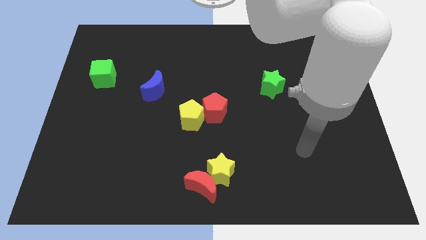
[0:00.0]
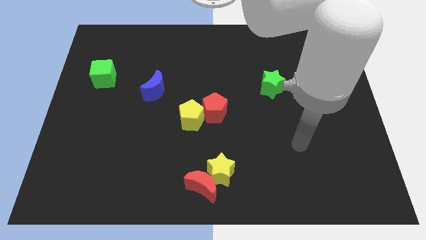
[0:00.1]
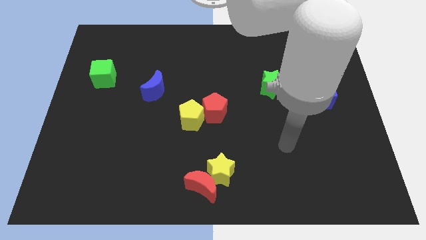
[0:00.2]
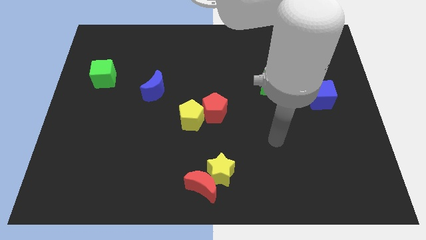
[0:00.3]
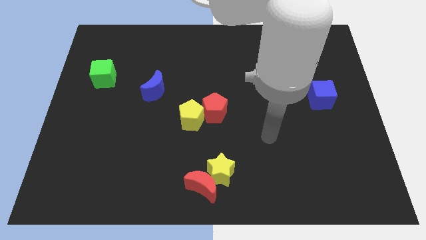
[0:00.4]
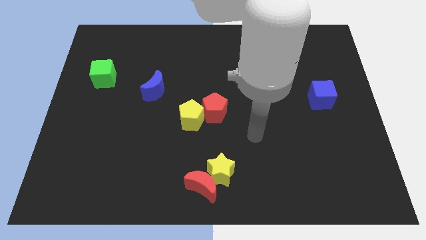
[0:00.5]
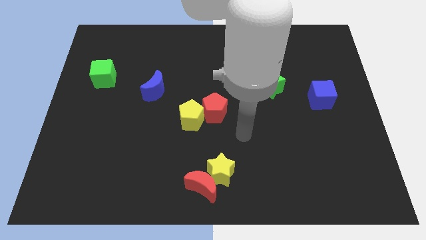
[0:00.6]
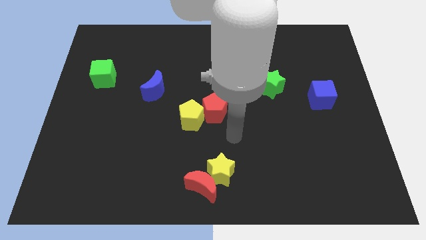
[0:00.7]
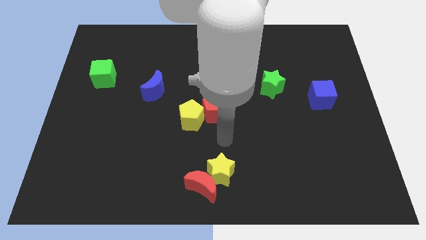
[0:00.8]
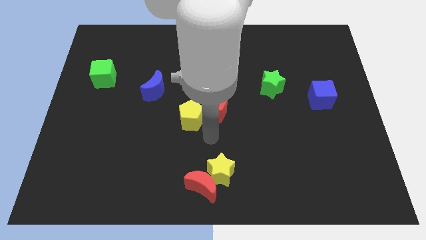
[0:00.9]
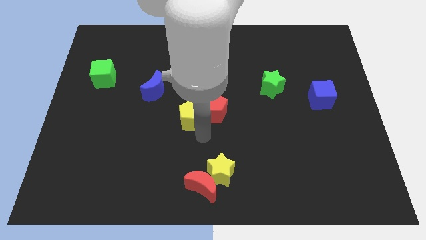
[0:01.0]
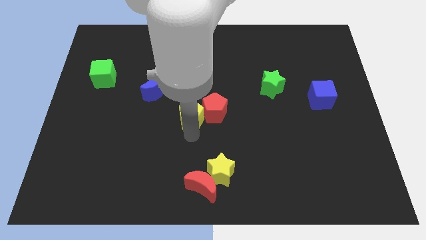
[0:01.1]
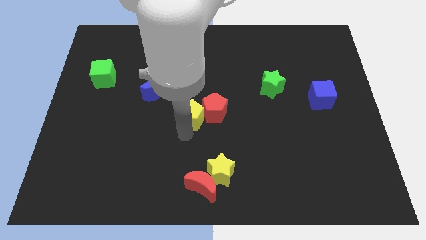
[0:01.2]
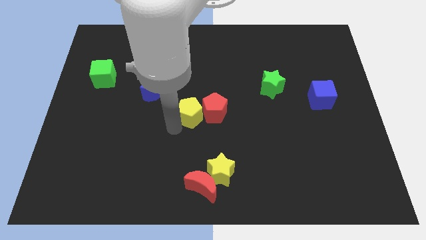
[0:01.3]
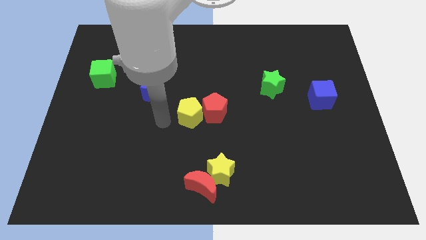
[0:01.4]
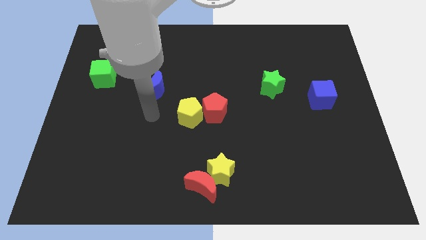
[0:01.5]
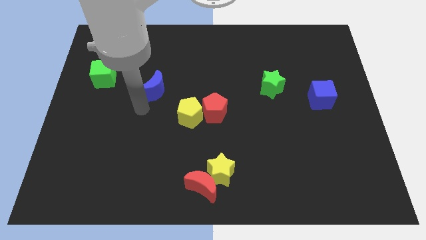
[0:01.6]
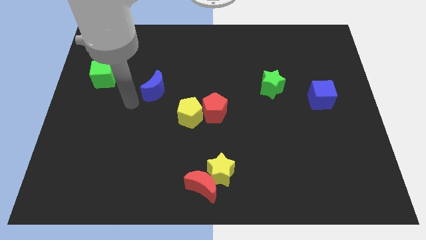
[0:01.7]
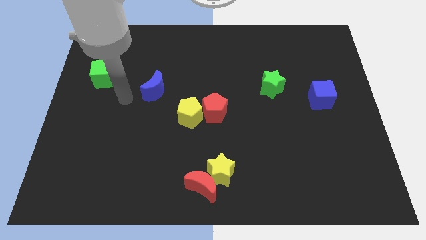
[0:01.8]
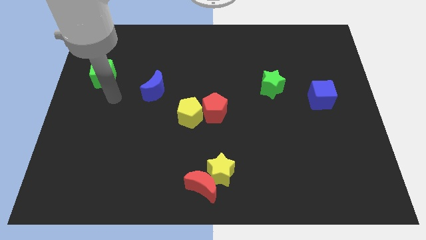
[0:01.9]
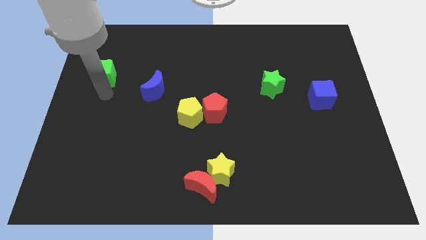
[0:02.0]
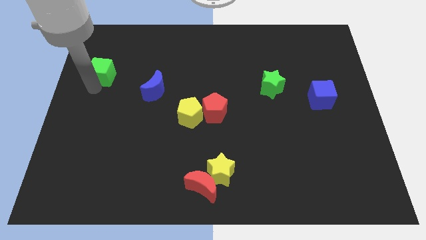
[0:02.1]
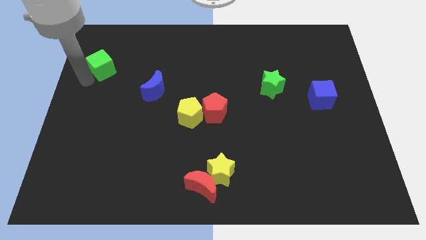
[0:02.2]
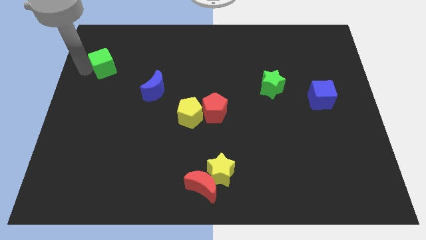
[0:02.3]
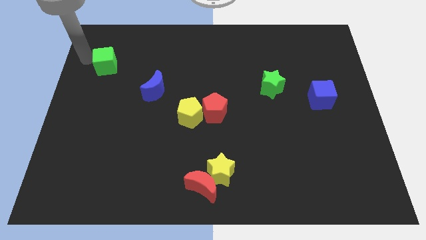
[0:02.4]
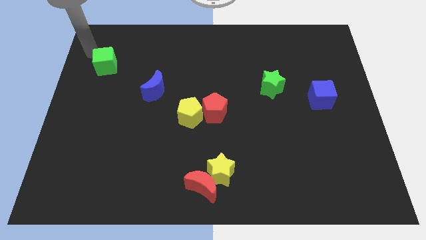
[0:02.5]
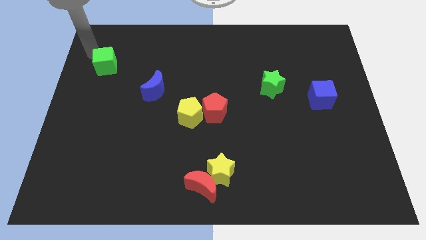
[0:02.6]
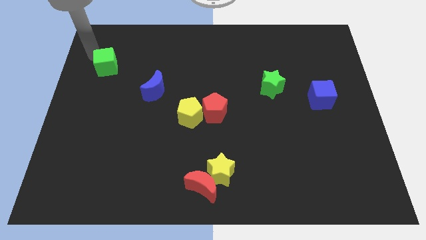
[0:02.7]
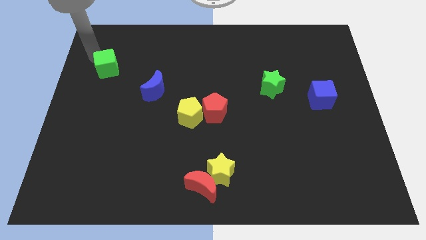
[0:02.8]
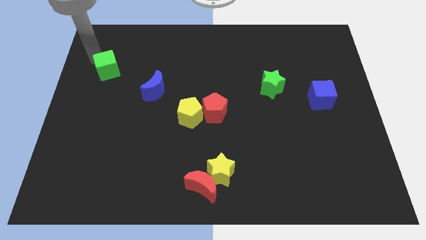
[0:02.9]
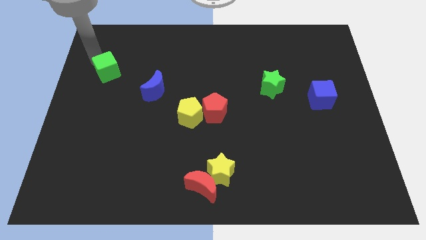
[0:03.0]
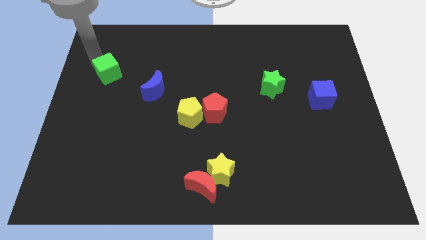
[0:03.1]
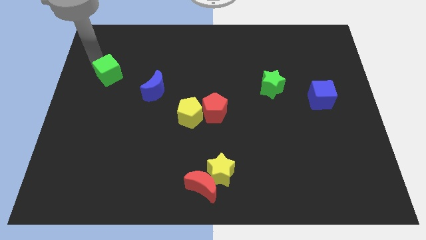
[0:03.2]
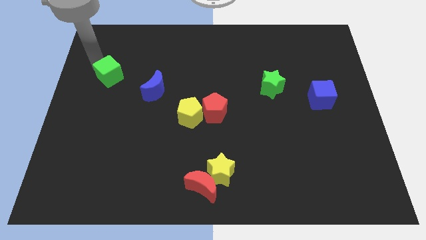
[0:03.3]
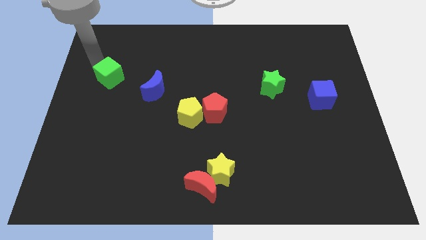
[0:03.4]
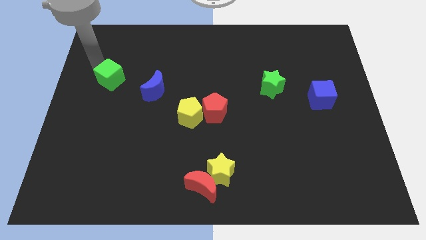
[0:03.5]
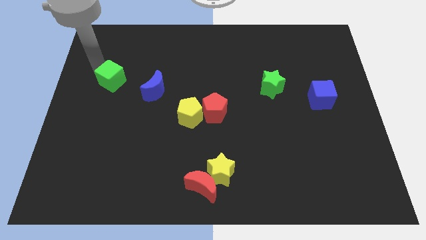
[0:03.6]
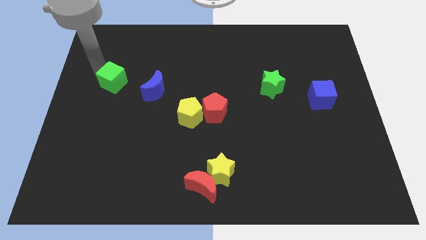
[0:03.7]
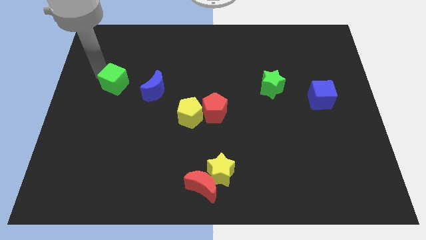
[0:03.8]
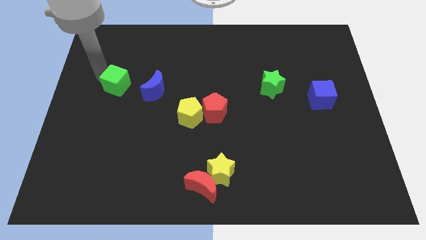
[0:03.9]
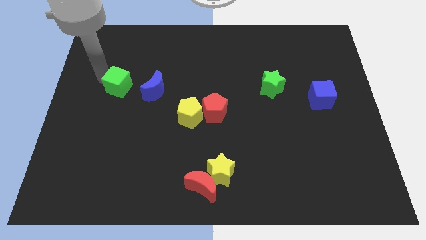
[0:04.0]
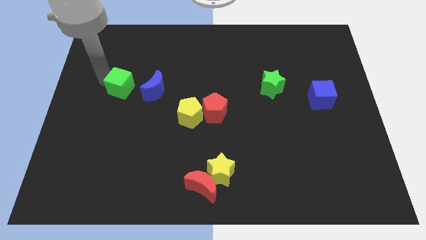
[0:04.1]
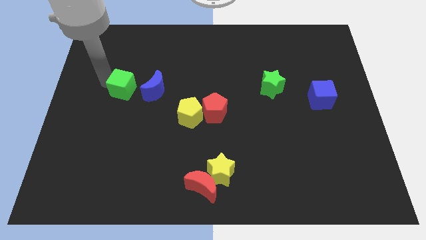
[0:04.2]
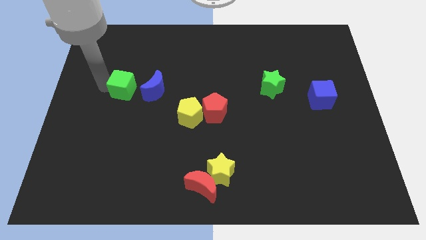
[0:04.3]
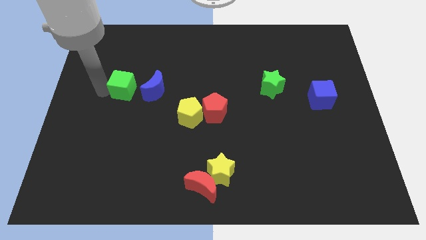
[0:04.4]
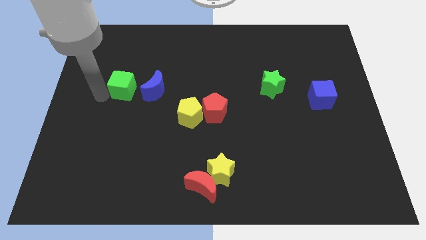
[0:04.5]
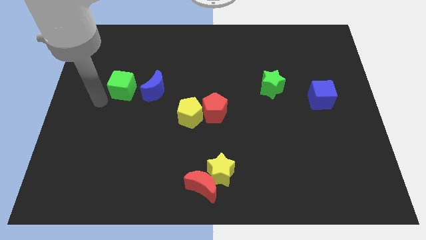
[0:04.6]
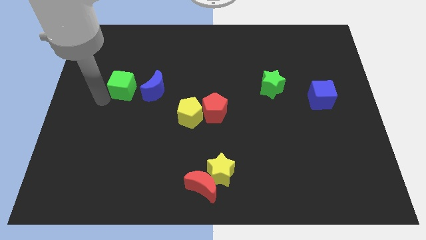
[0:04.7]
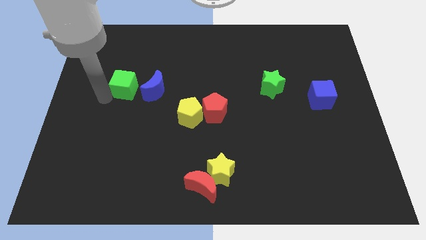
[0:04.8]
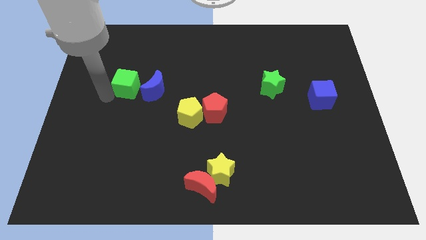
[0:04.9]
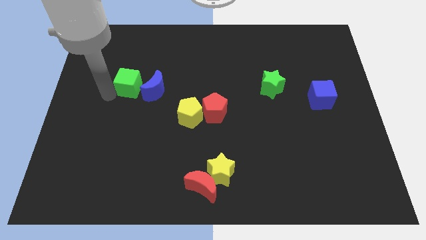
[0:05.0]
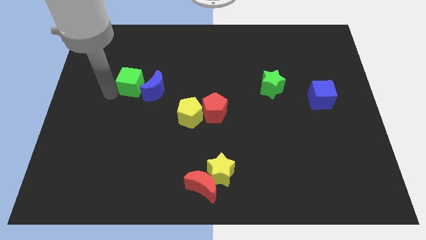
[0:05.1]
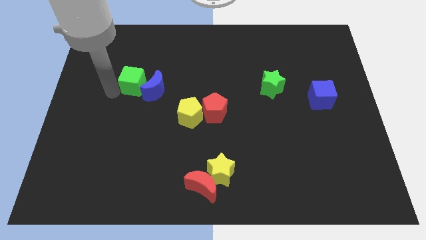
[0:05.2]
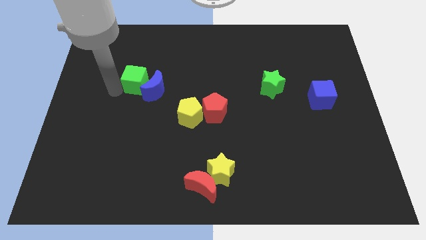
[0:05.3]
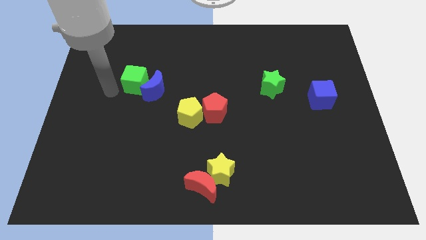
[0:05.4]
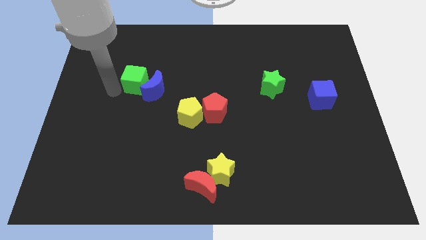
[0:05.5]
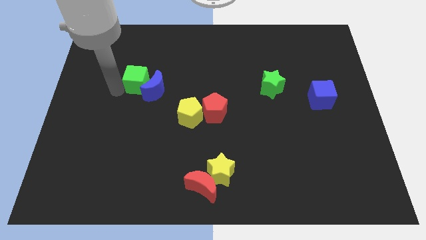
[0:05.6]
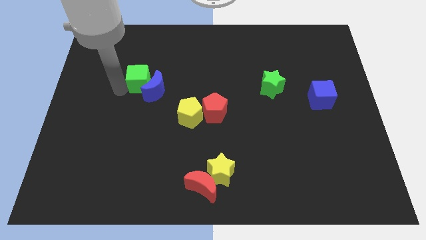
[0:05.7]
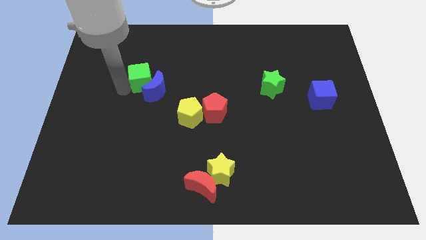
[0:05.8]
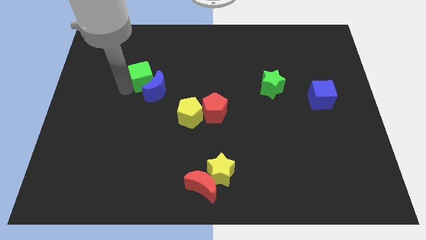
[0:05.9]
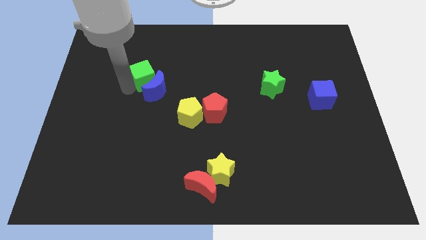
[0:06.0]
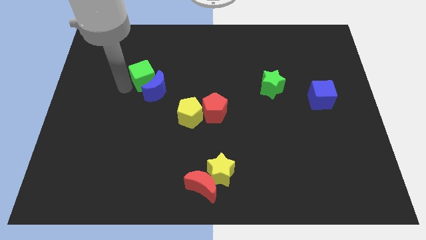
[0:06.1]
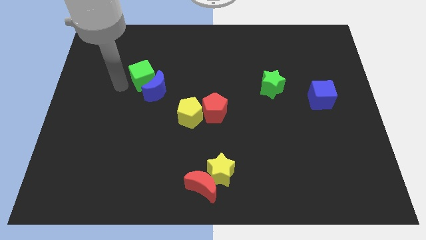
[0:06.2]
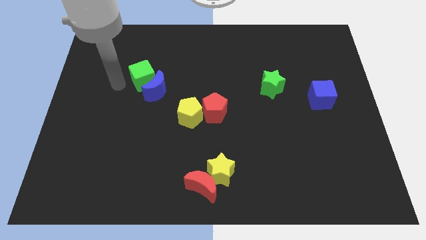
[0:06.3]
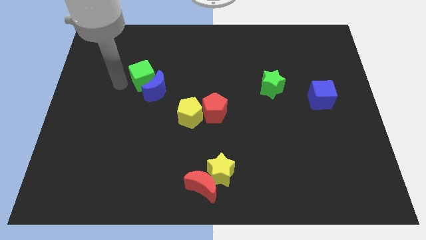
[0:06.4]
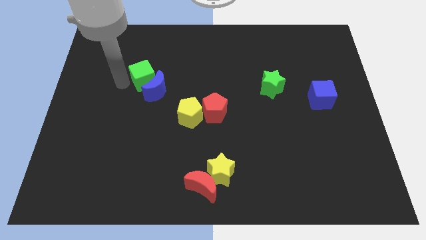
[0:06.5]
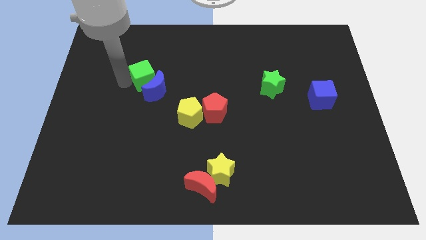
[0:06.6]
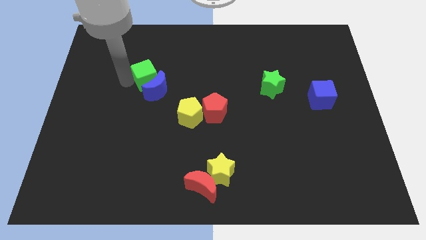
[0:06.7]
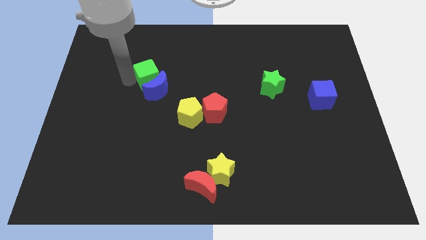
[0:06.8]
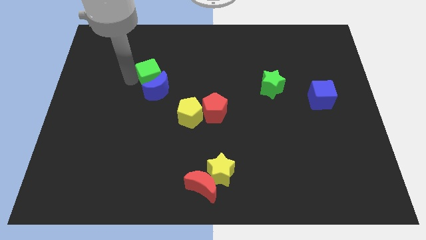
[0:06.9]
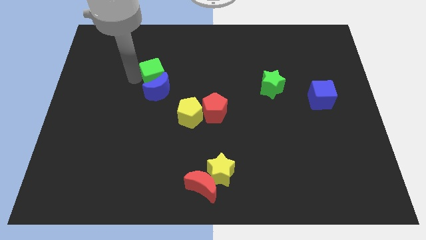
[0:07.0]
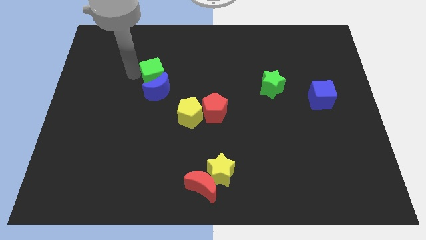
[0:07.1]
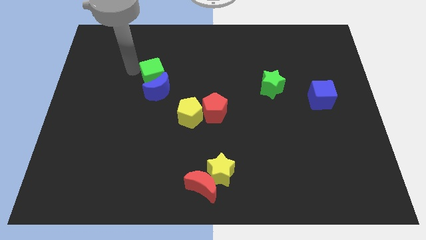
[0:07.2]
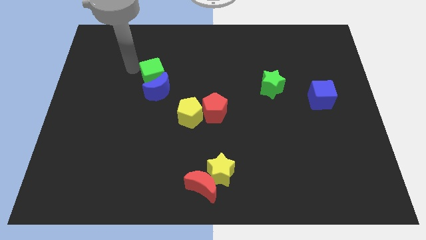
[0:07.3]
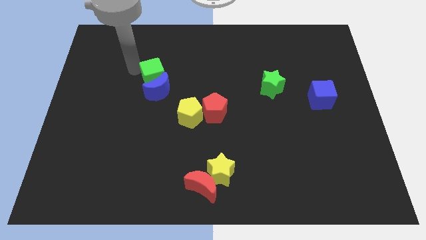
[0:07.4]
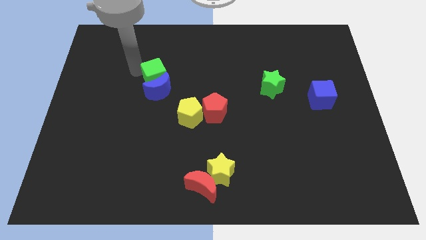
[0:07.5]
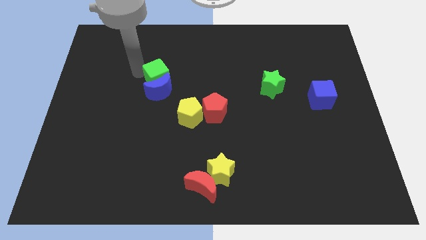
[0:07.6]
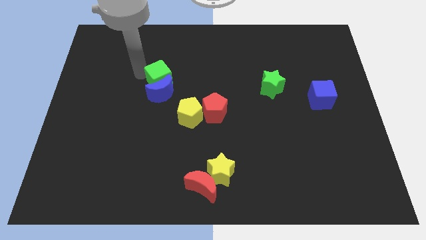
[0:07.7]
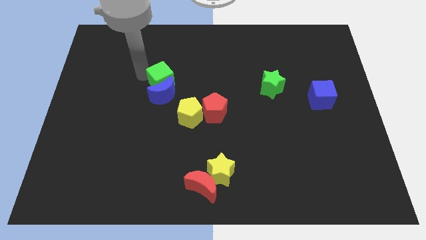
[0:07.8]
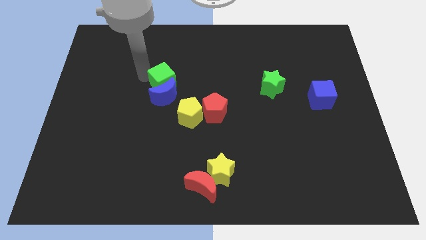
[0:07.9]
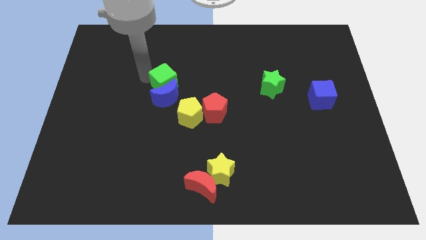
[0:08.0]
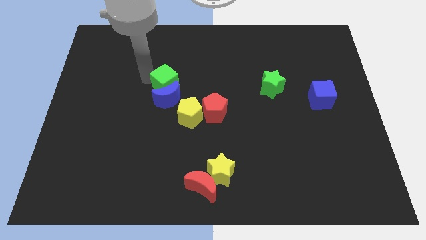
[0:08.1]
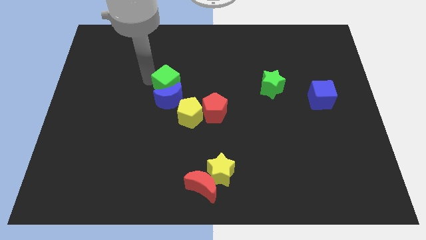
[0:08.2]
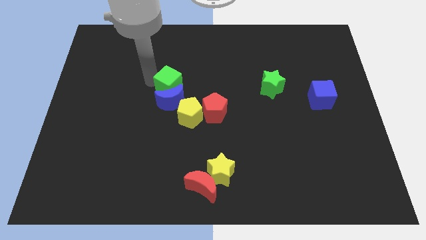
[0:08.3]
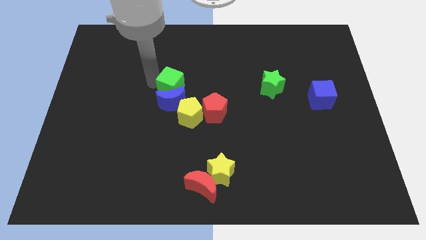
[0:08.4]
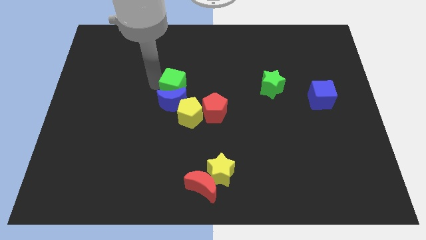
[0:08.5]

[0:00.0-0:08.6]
push the green cube diagonally up and to the left of the red pentagon
